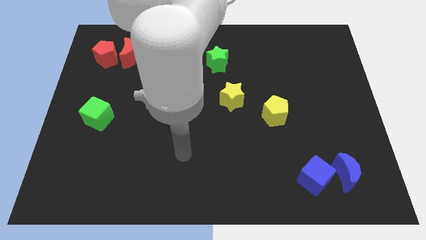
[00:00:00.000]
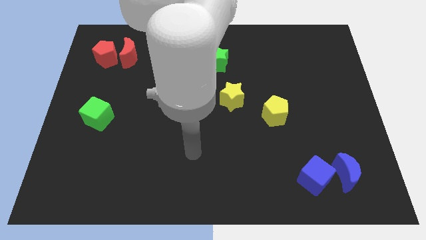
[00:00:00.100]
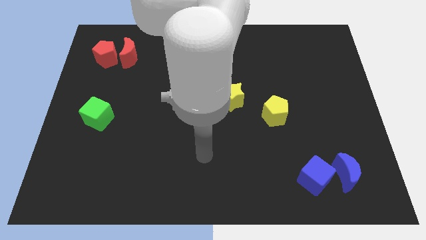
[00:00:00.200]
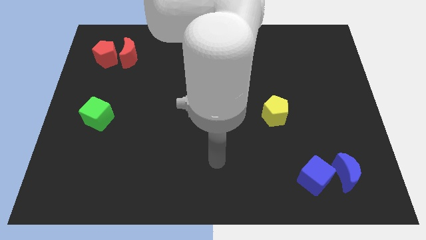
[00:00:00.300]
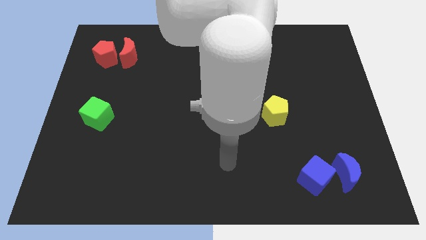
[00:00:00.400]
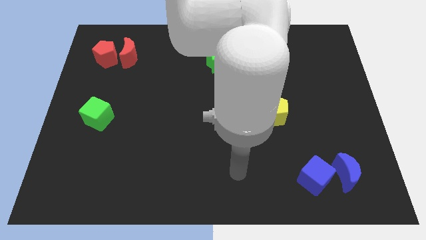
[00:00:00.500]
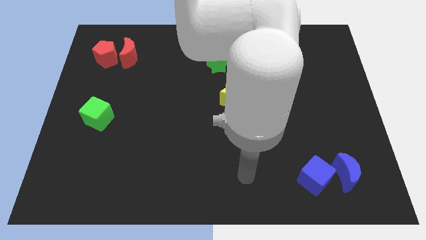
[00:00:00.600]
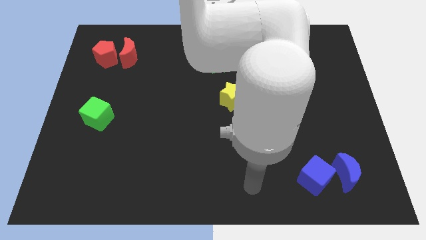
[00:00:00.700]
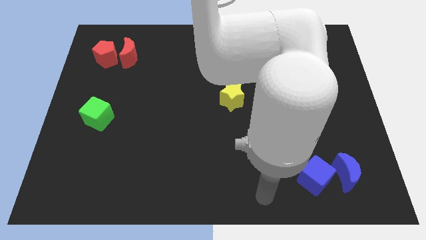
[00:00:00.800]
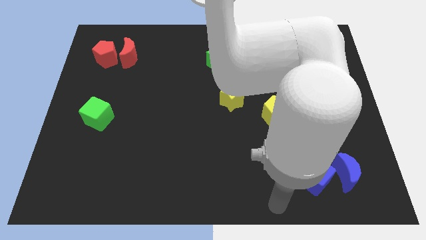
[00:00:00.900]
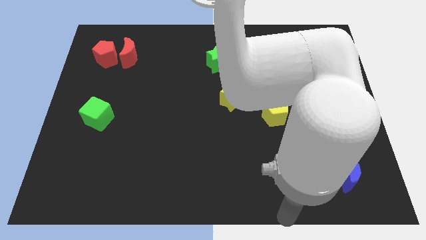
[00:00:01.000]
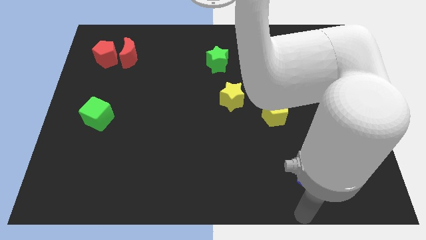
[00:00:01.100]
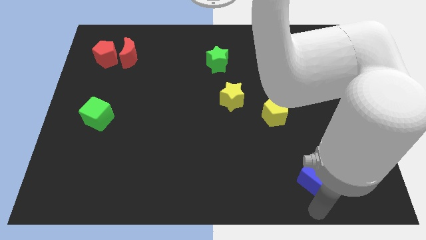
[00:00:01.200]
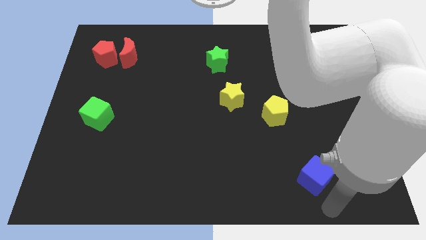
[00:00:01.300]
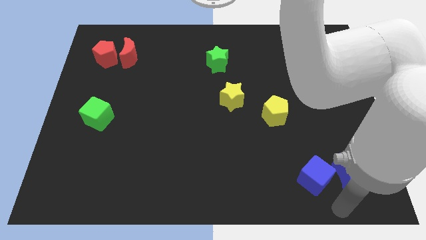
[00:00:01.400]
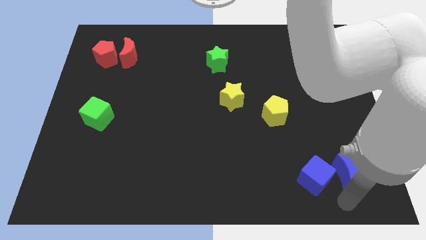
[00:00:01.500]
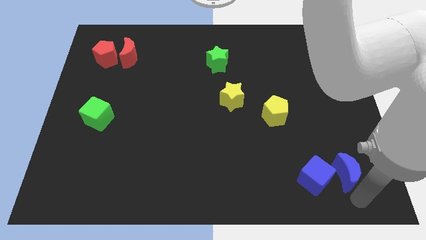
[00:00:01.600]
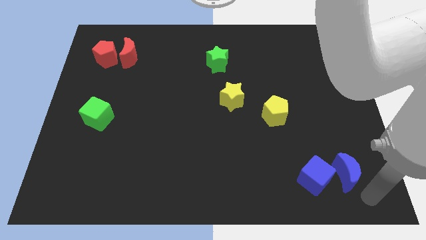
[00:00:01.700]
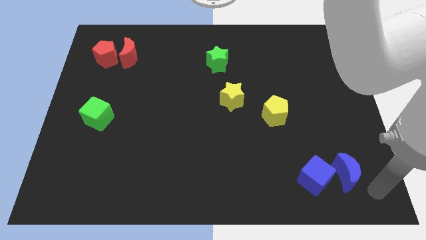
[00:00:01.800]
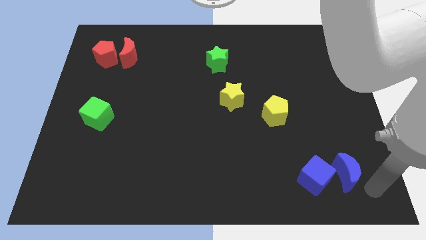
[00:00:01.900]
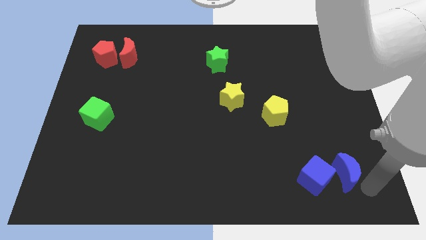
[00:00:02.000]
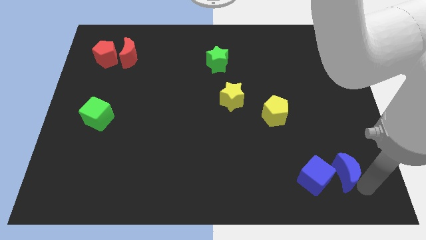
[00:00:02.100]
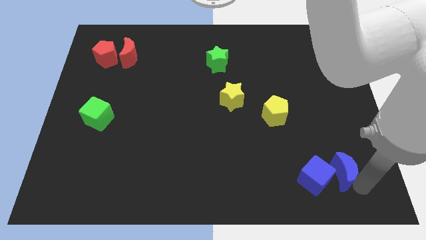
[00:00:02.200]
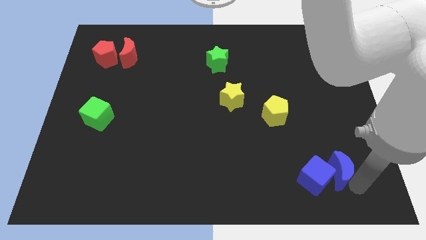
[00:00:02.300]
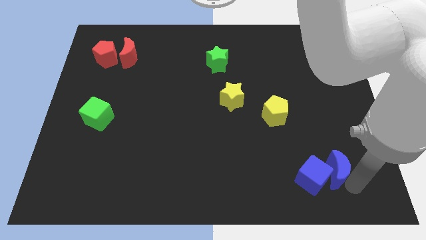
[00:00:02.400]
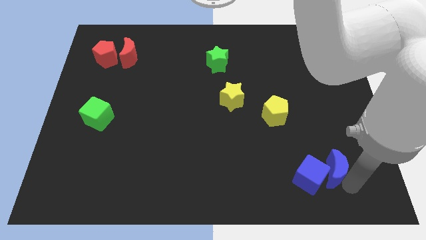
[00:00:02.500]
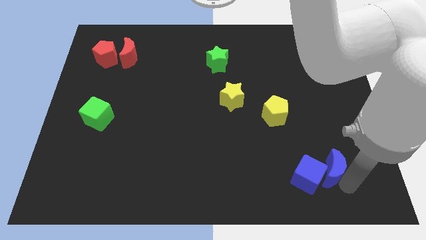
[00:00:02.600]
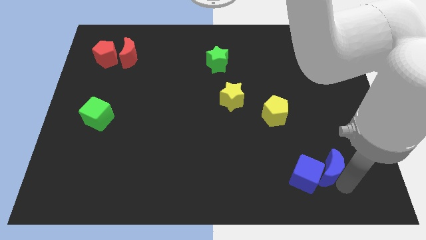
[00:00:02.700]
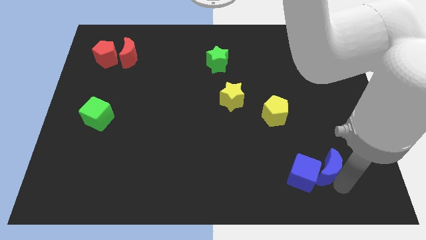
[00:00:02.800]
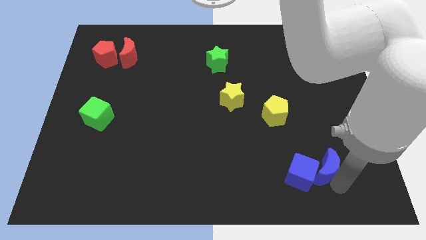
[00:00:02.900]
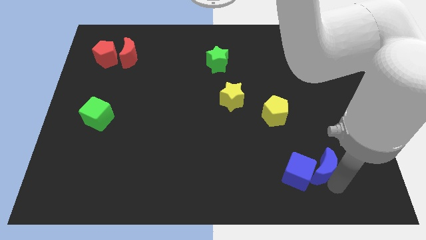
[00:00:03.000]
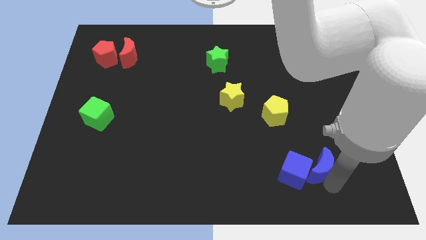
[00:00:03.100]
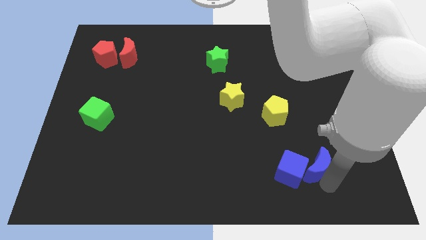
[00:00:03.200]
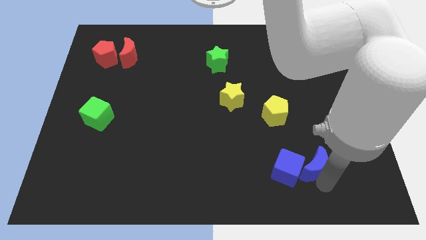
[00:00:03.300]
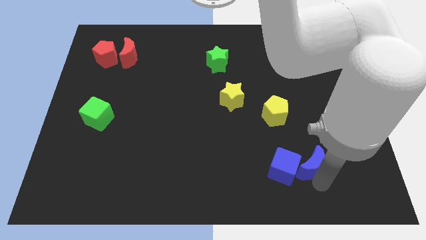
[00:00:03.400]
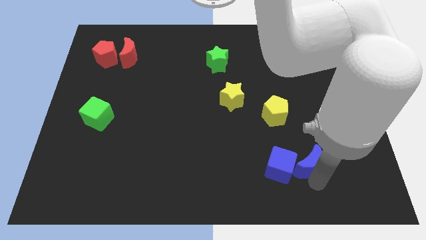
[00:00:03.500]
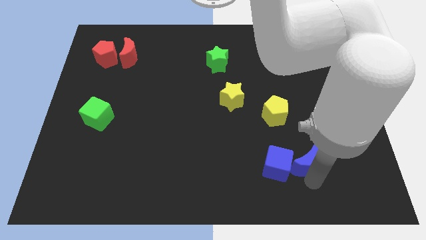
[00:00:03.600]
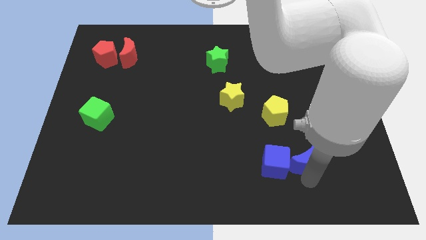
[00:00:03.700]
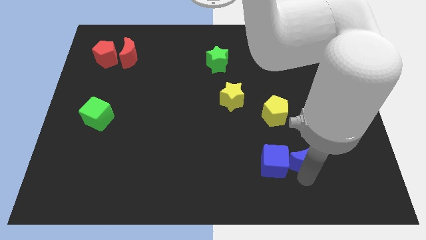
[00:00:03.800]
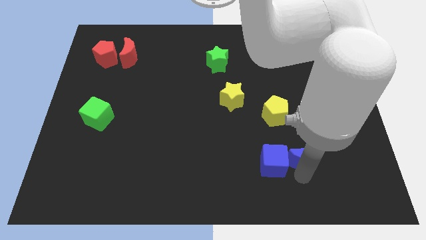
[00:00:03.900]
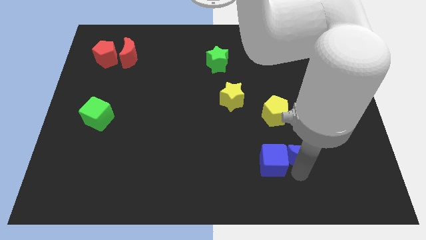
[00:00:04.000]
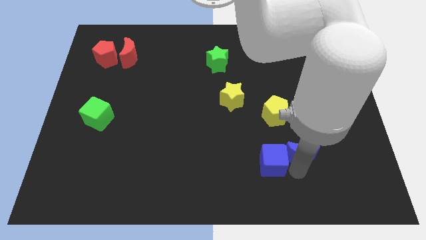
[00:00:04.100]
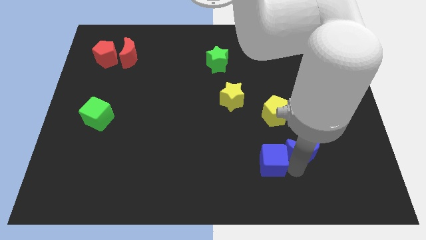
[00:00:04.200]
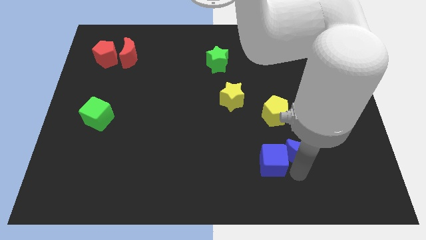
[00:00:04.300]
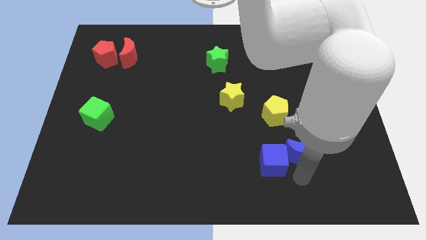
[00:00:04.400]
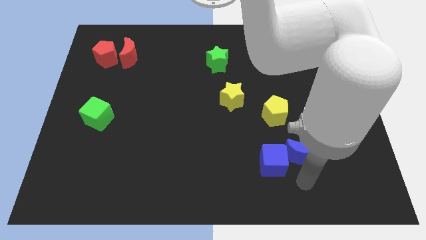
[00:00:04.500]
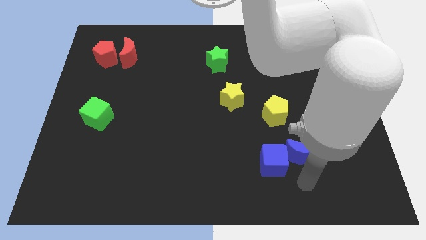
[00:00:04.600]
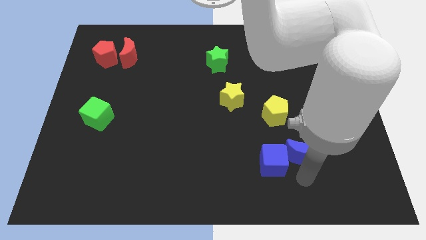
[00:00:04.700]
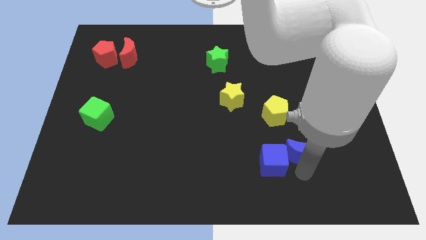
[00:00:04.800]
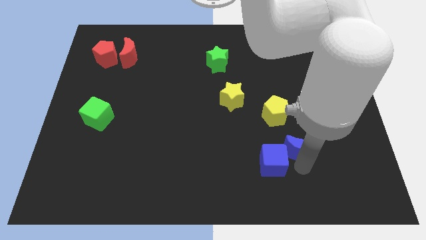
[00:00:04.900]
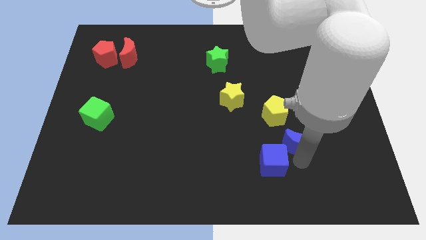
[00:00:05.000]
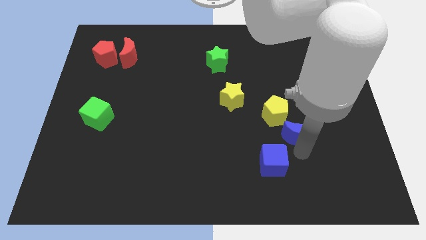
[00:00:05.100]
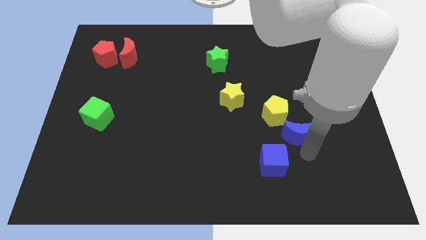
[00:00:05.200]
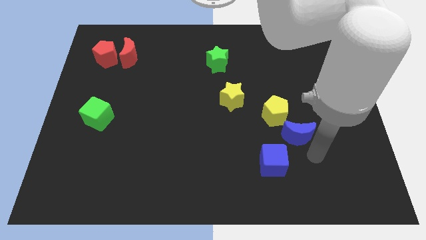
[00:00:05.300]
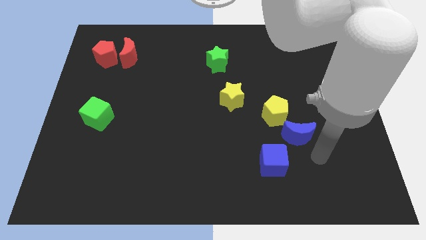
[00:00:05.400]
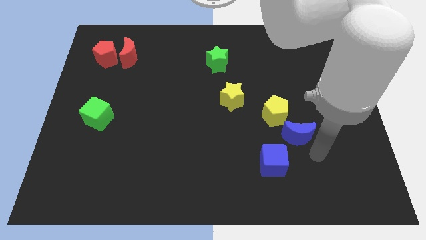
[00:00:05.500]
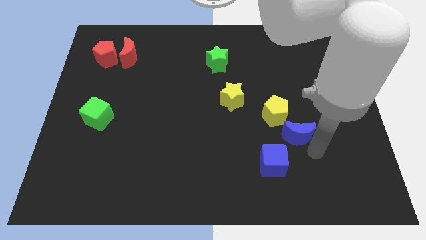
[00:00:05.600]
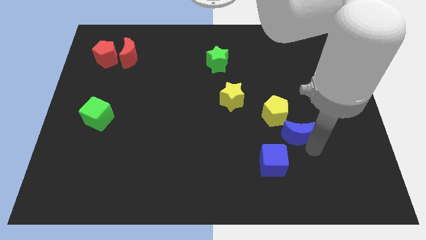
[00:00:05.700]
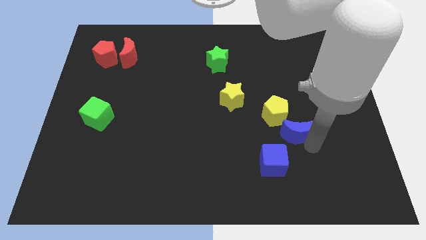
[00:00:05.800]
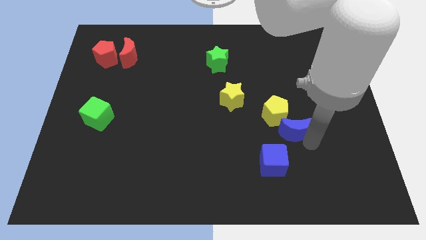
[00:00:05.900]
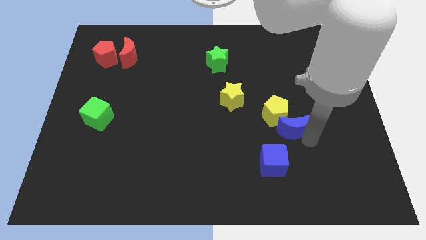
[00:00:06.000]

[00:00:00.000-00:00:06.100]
slide the blue moon to the yellow pentagon

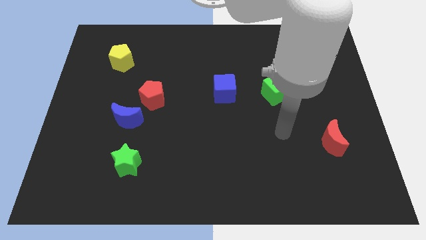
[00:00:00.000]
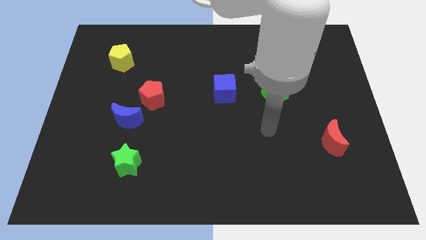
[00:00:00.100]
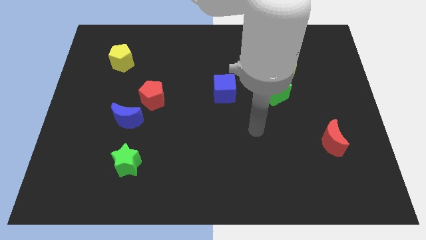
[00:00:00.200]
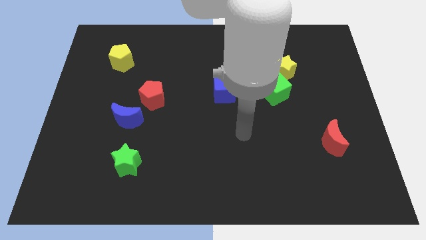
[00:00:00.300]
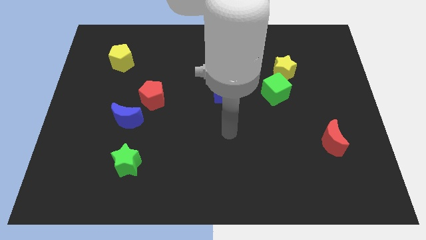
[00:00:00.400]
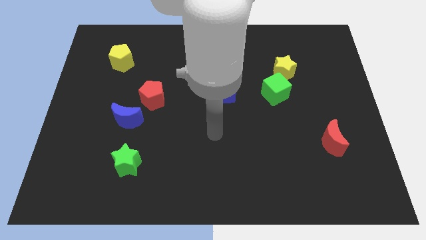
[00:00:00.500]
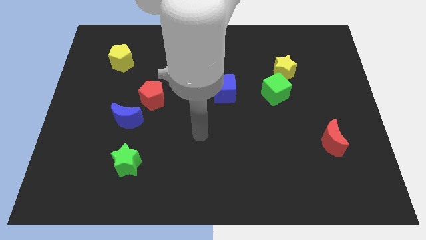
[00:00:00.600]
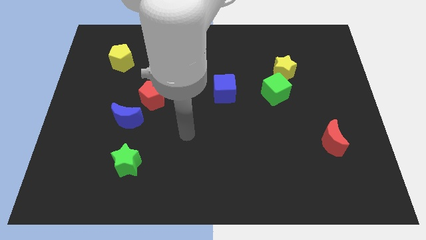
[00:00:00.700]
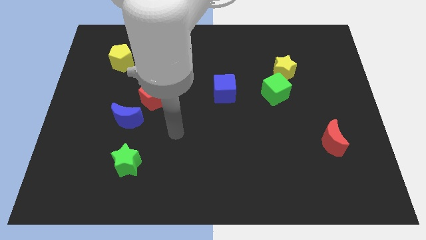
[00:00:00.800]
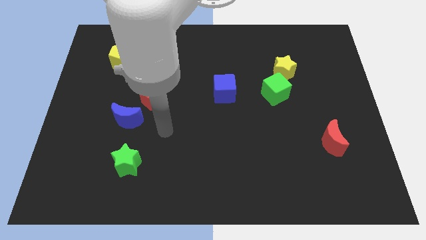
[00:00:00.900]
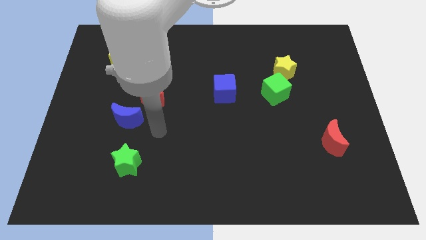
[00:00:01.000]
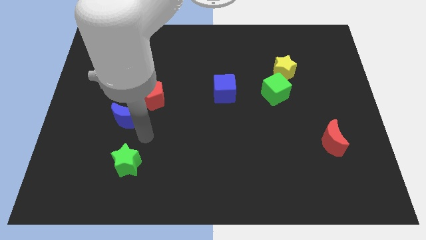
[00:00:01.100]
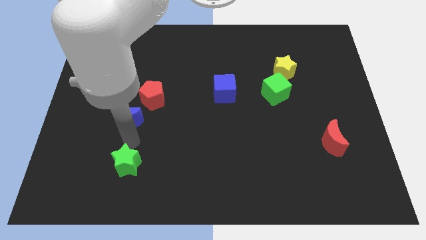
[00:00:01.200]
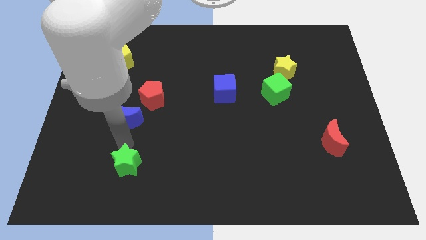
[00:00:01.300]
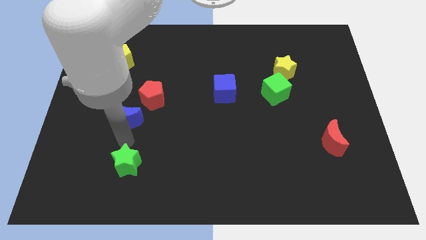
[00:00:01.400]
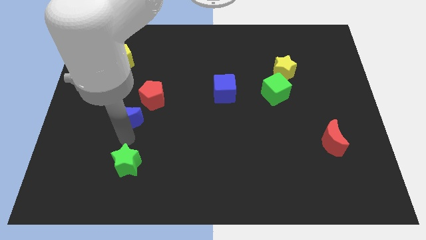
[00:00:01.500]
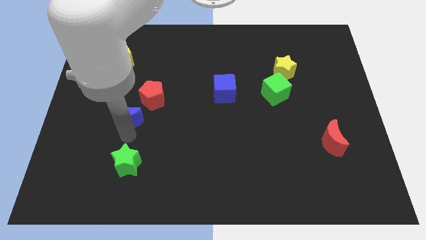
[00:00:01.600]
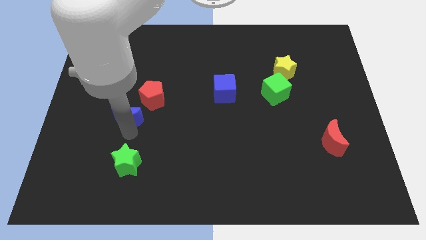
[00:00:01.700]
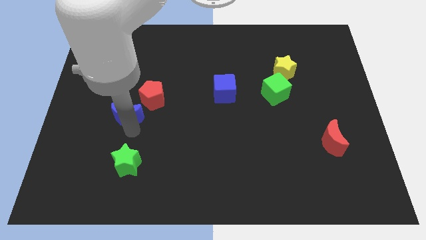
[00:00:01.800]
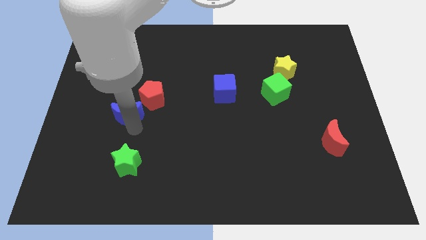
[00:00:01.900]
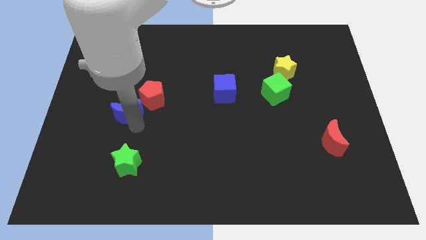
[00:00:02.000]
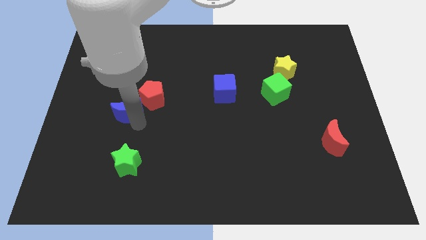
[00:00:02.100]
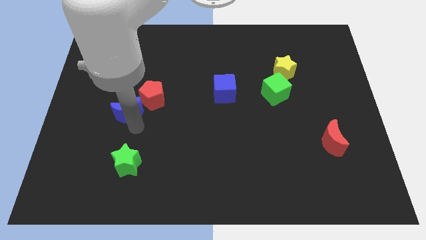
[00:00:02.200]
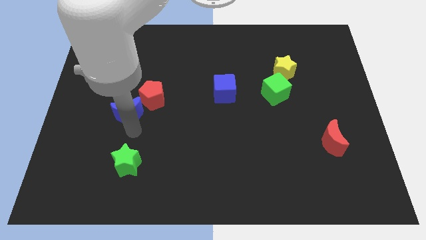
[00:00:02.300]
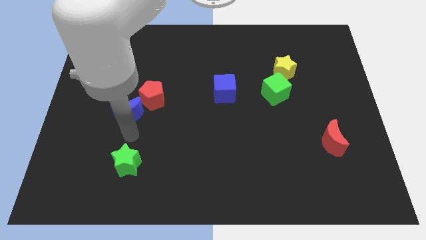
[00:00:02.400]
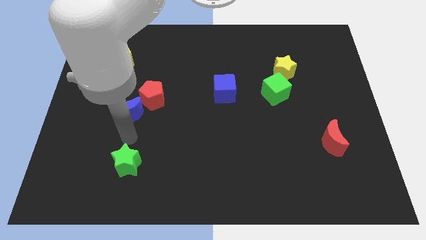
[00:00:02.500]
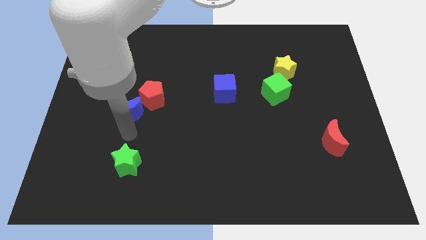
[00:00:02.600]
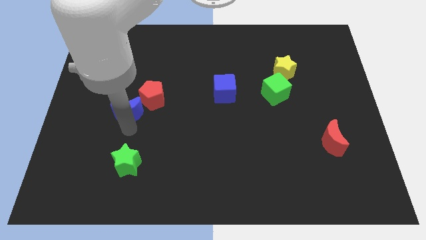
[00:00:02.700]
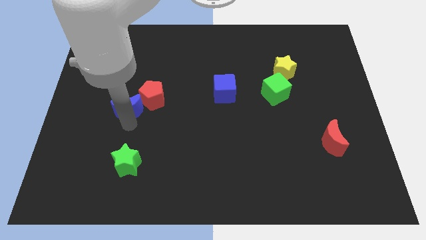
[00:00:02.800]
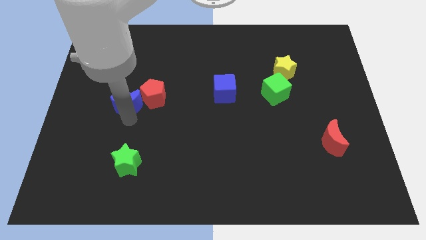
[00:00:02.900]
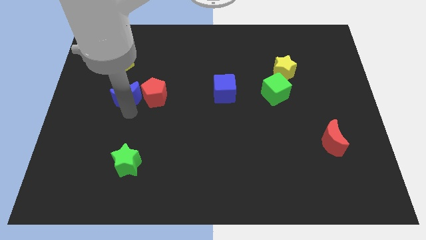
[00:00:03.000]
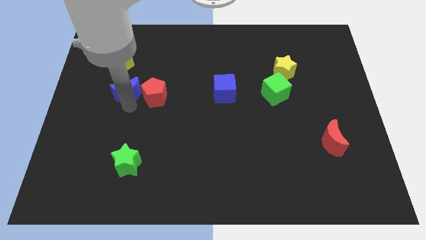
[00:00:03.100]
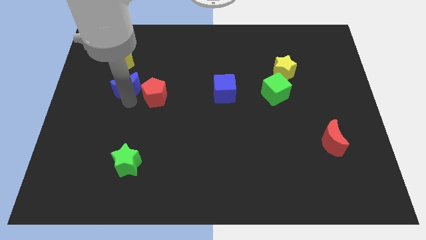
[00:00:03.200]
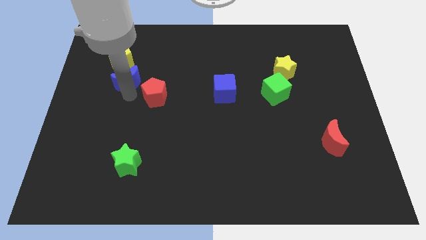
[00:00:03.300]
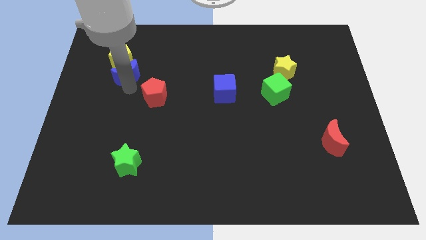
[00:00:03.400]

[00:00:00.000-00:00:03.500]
put the blue moon next to the yellow pentagon
